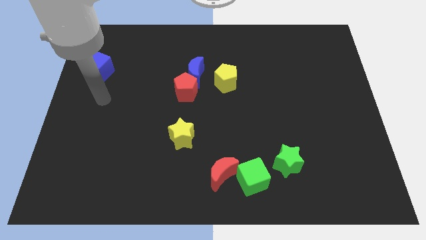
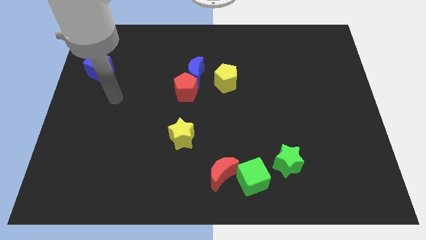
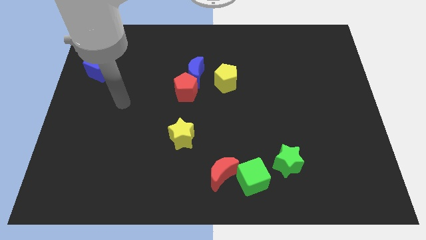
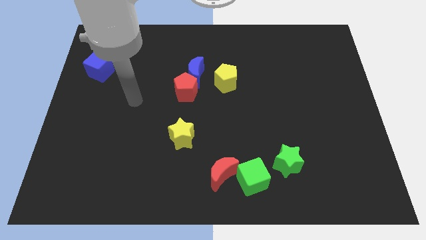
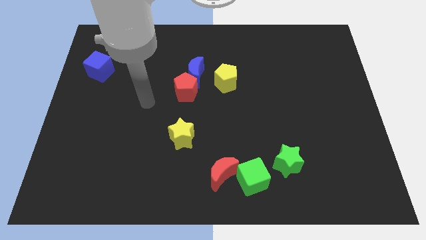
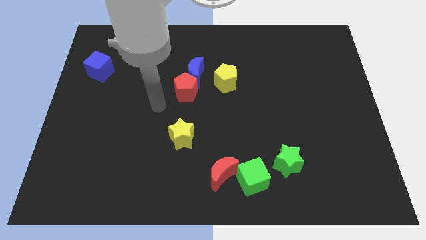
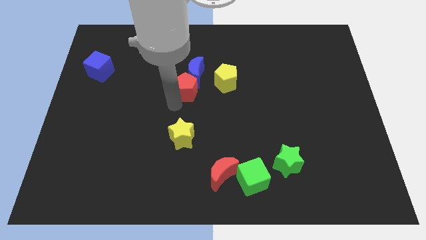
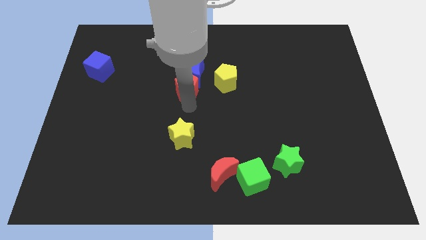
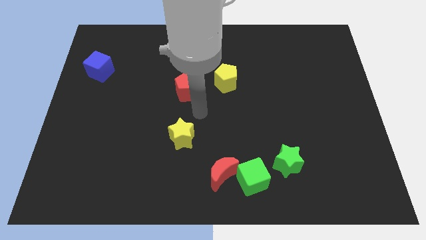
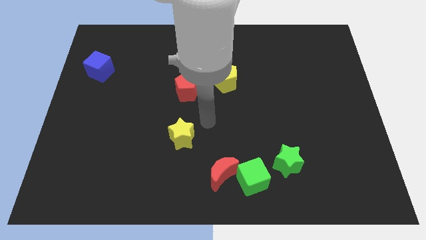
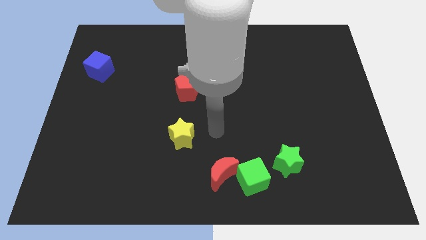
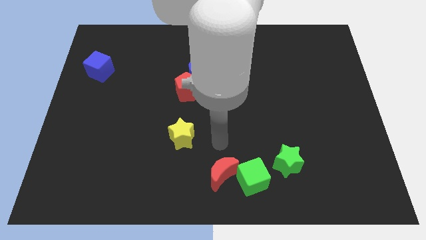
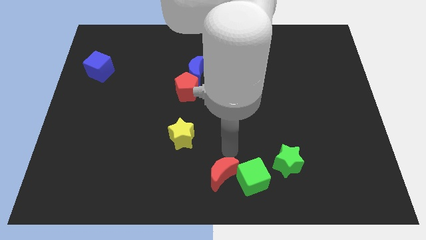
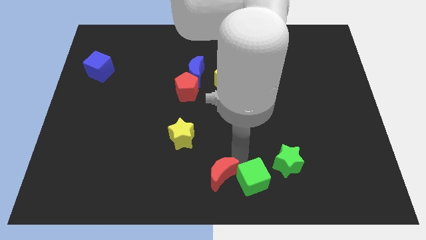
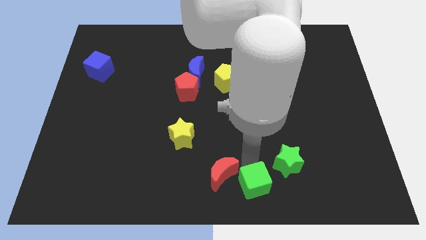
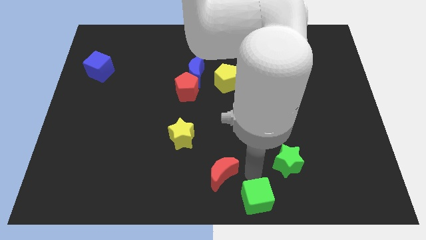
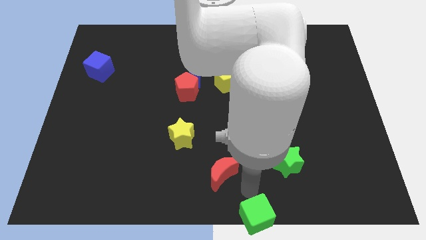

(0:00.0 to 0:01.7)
separate the red moon from the green cube

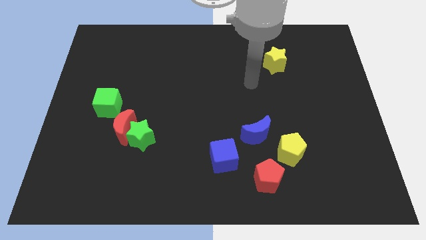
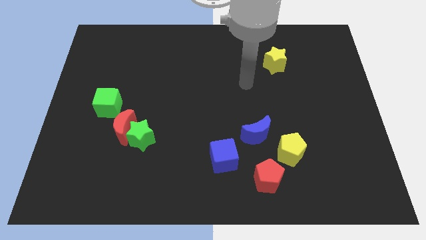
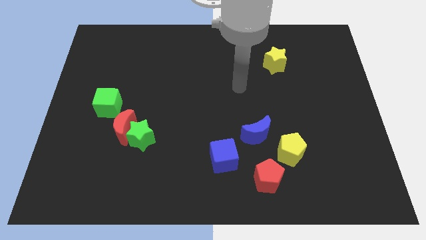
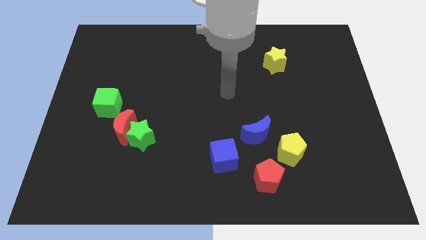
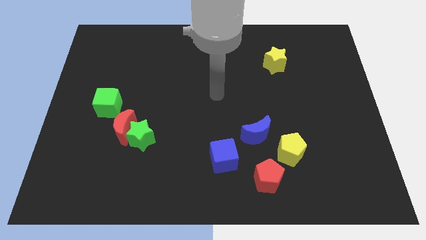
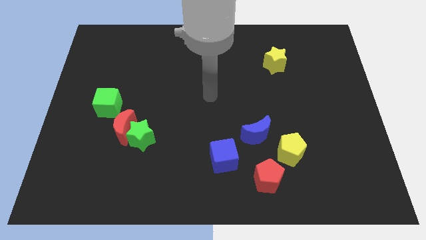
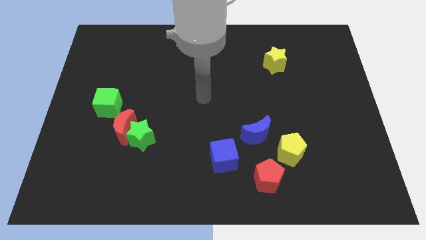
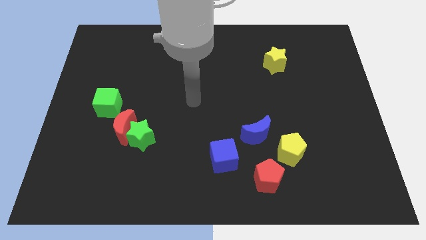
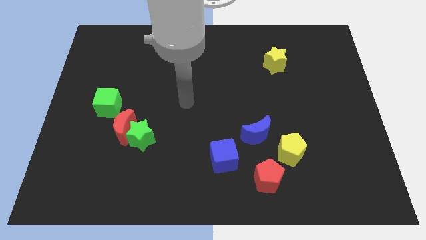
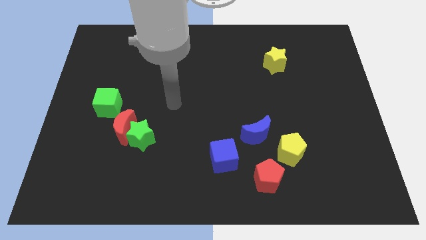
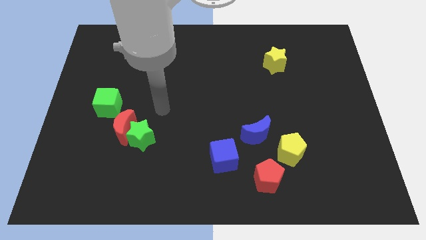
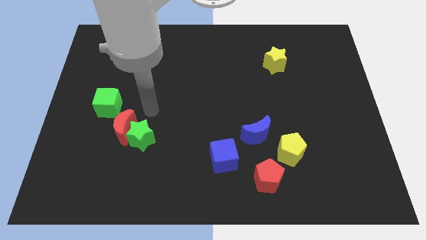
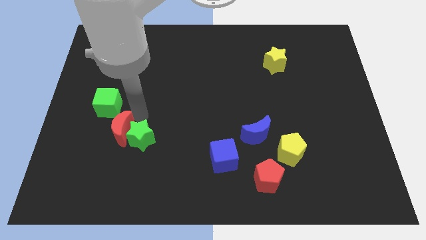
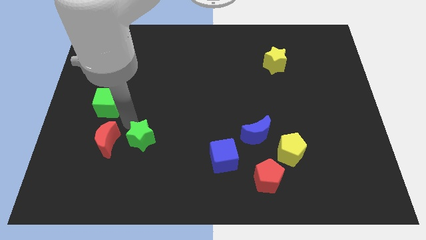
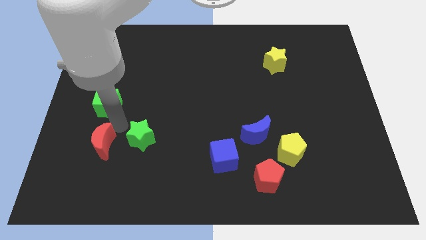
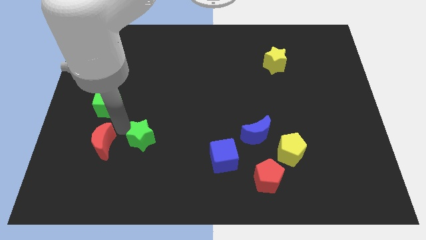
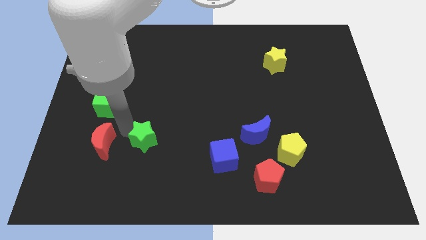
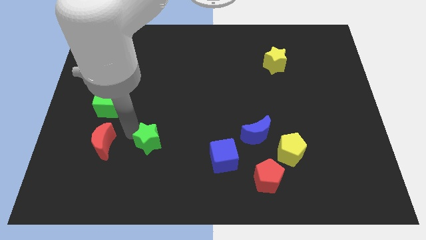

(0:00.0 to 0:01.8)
move the green star away from the red moon

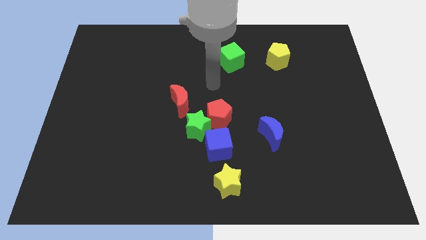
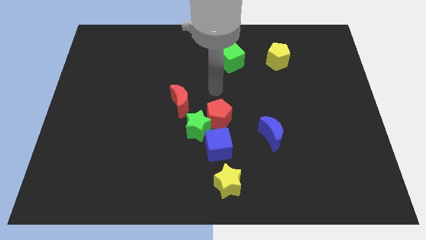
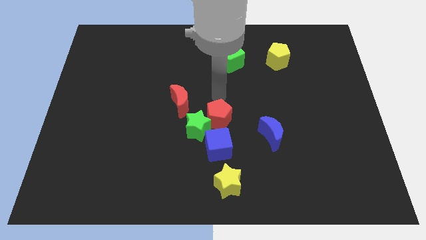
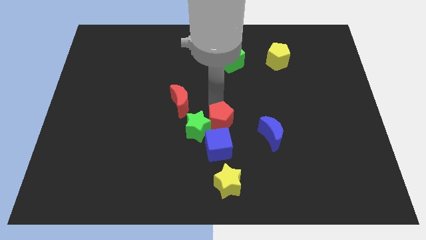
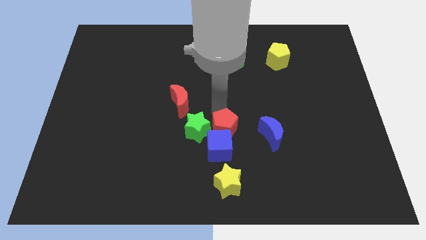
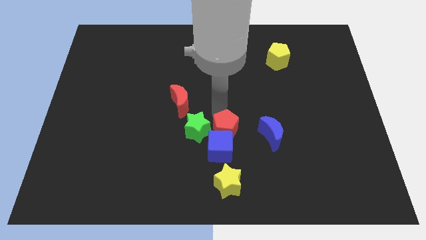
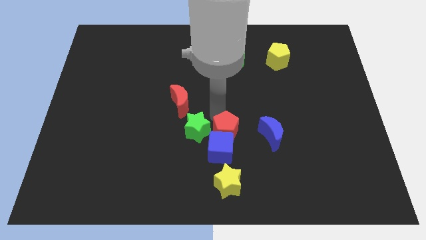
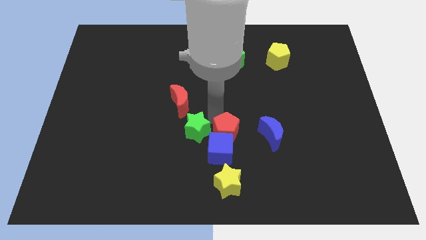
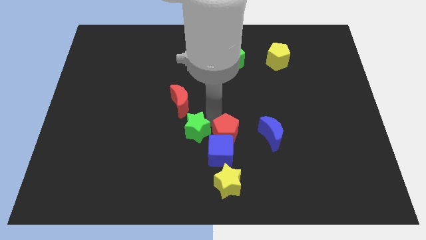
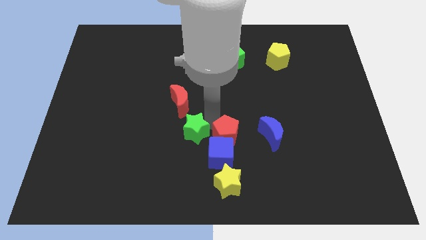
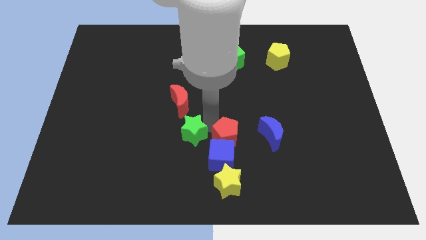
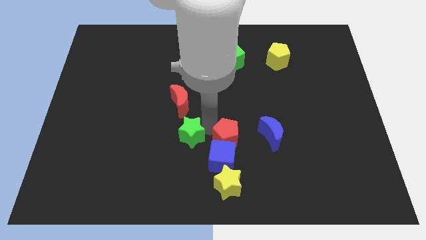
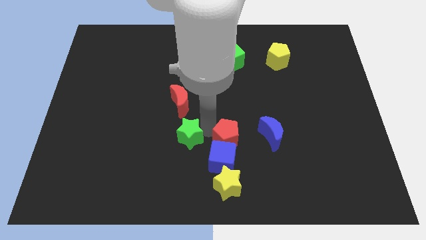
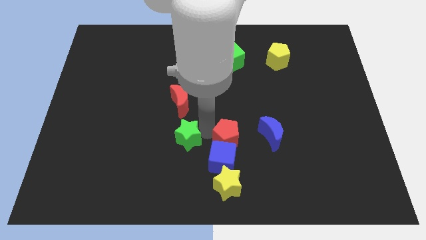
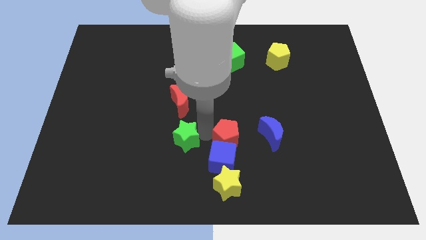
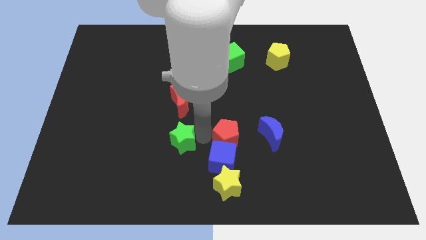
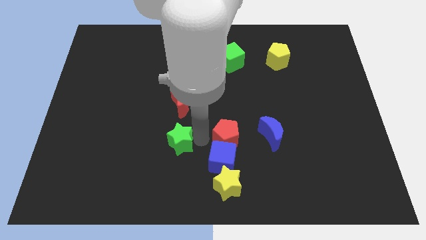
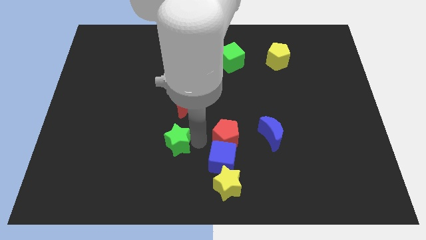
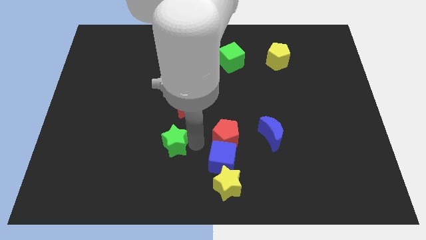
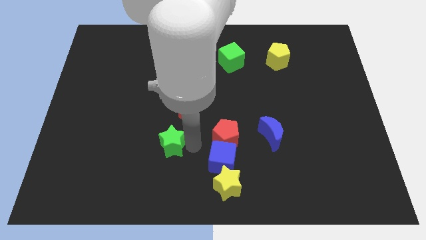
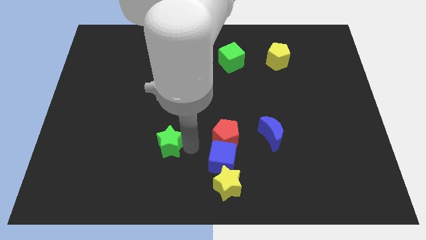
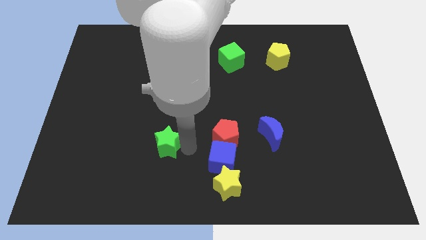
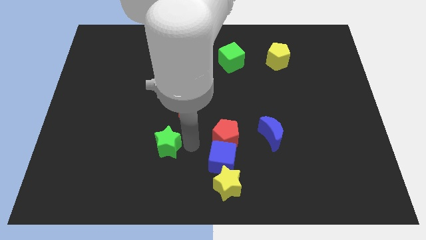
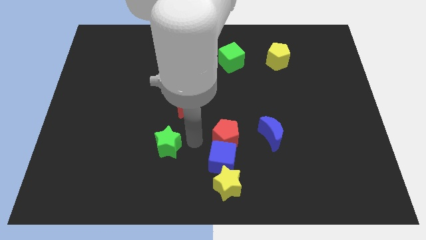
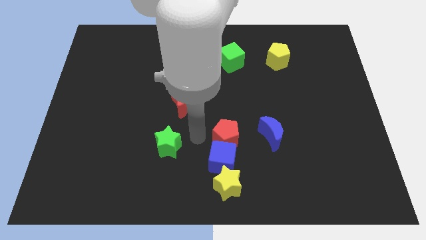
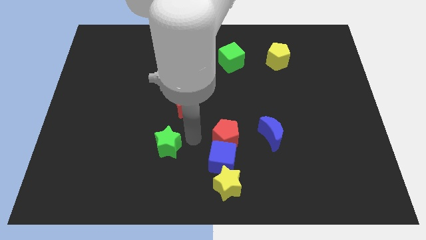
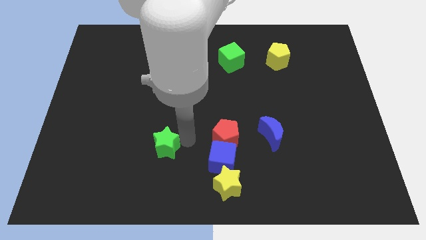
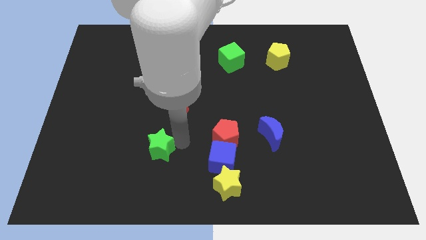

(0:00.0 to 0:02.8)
move the green star away from the group

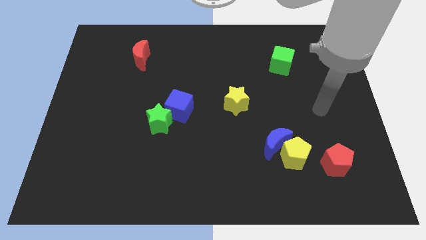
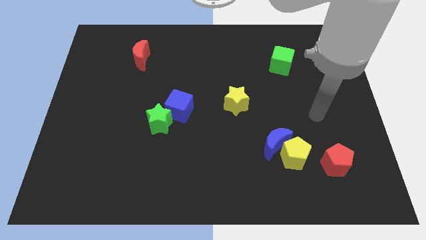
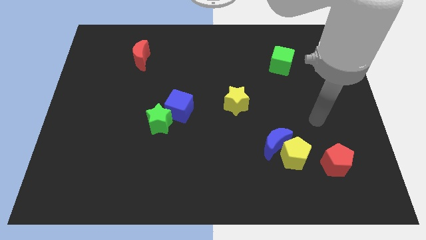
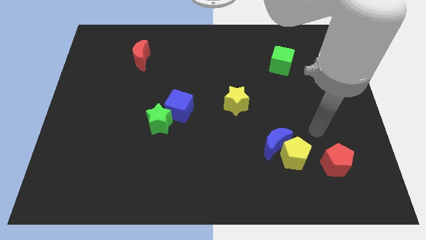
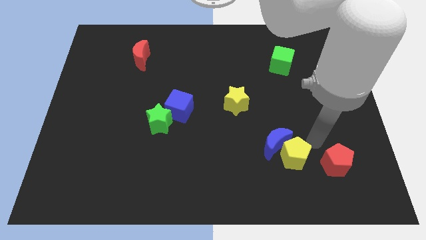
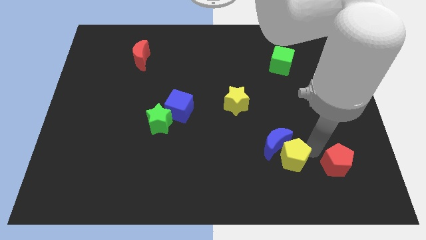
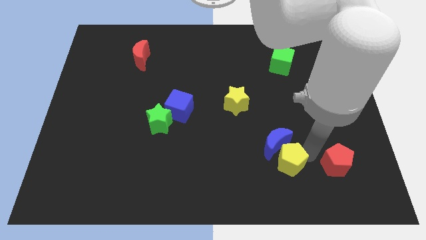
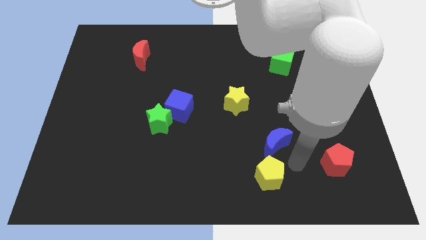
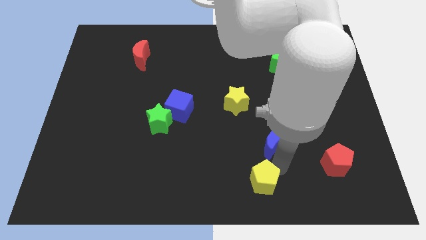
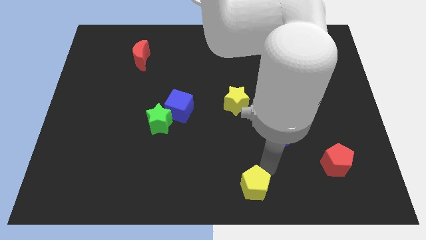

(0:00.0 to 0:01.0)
separate the blue moon from the yellow pentagon

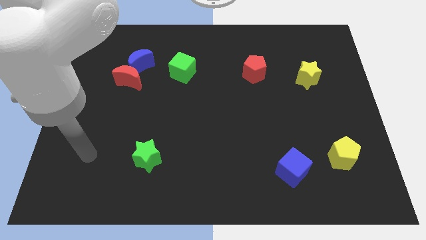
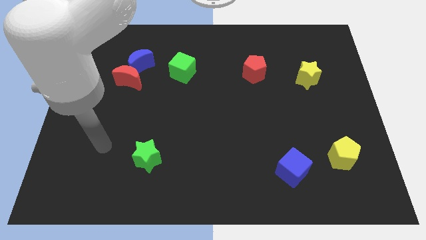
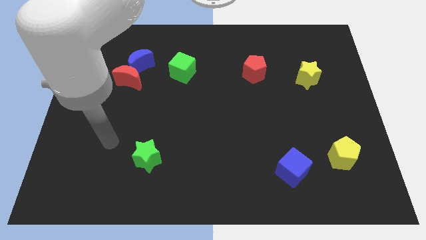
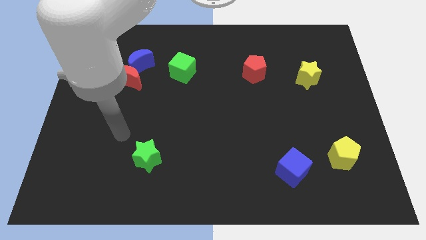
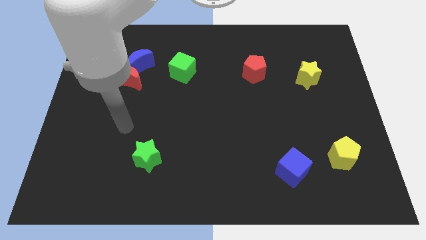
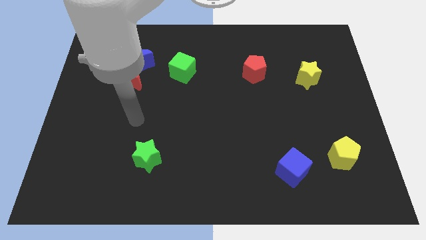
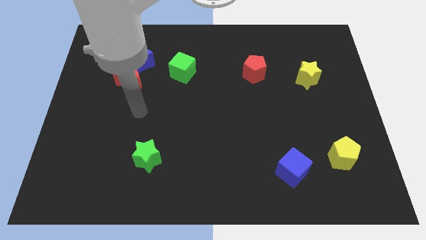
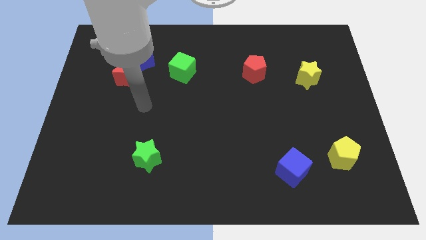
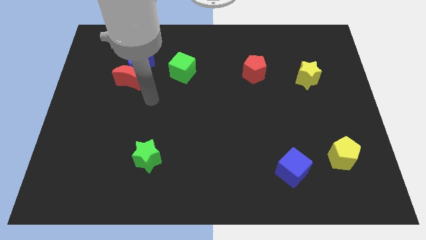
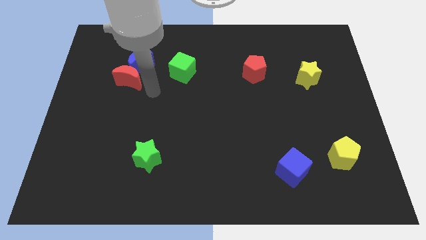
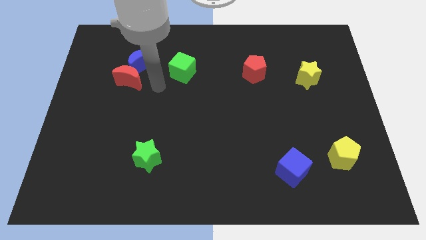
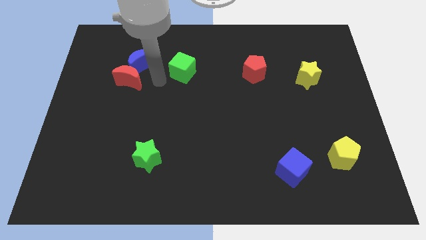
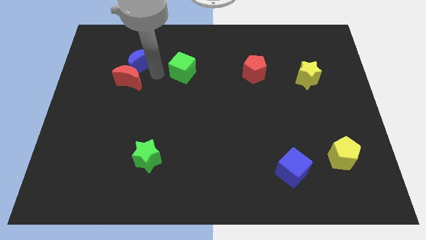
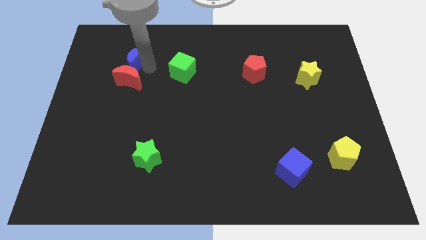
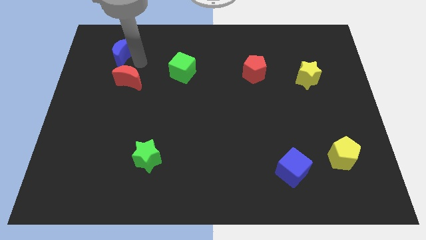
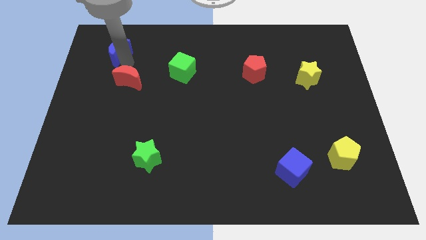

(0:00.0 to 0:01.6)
move the red moon away from the blue moon

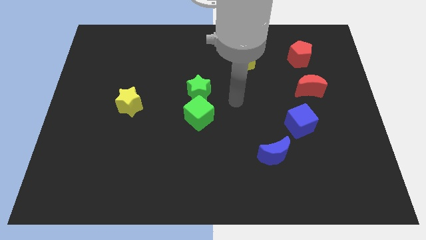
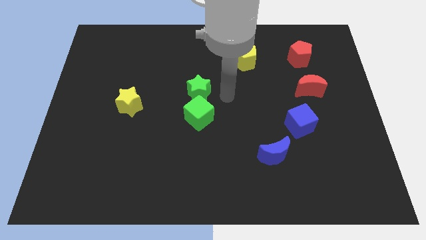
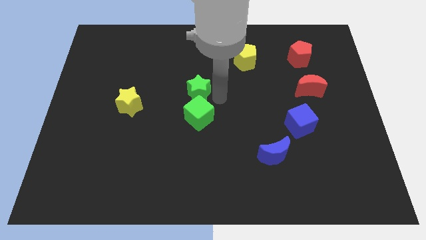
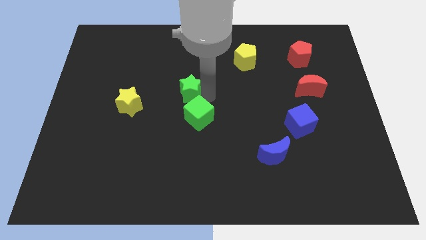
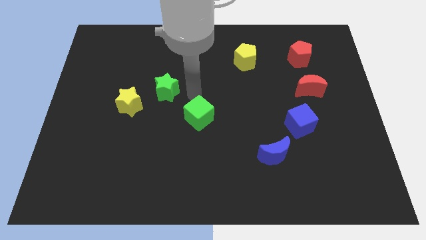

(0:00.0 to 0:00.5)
move the green cube away from the green star
